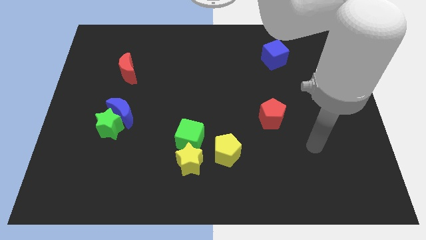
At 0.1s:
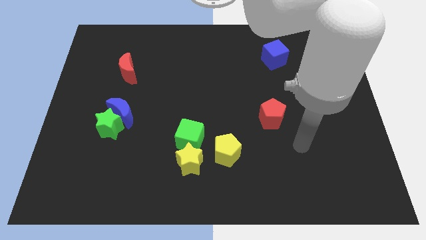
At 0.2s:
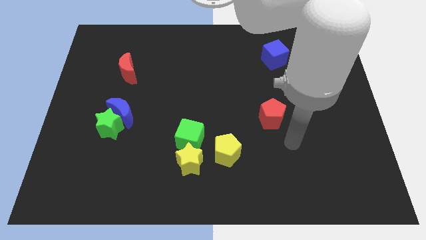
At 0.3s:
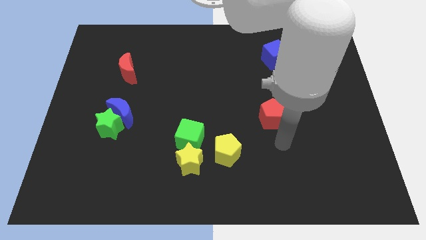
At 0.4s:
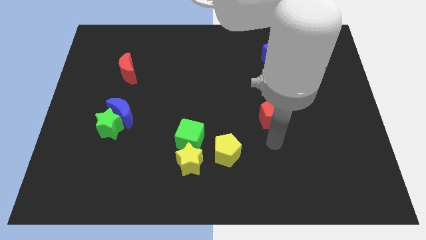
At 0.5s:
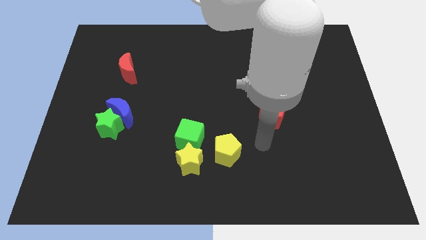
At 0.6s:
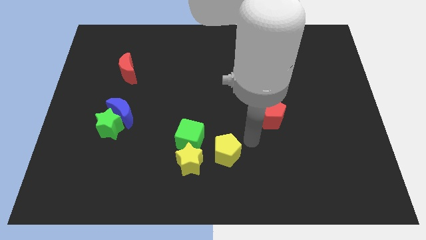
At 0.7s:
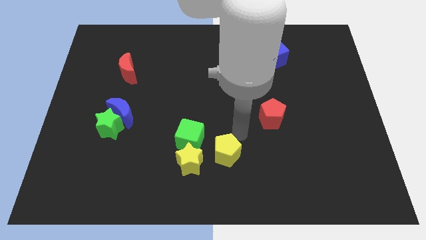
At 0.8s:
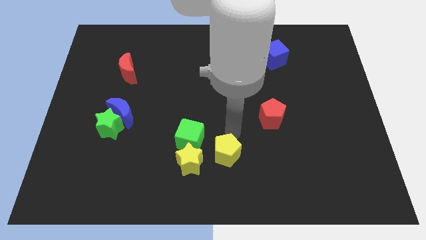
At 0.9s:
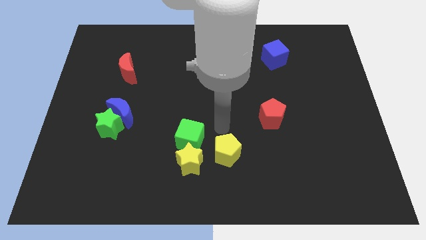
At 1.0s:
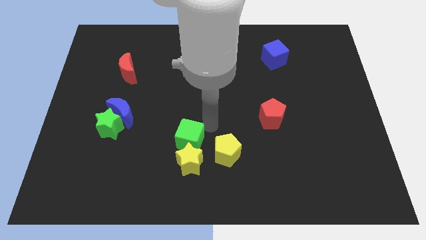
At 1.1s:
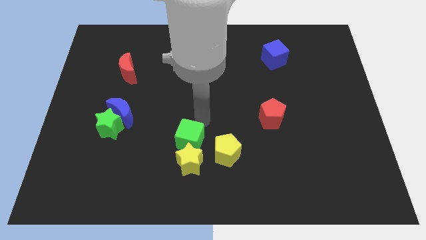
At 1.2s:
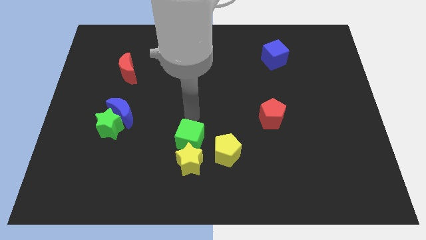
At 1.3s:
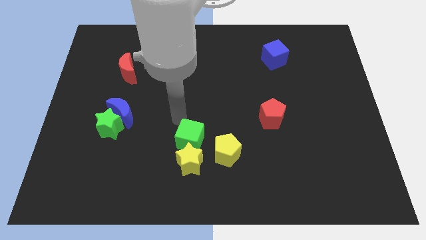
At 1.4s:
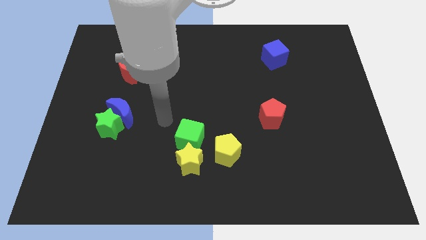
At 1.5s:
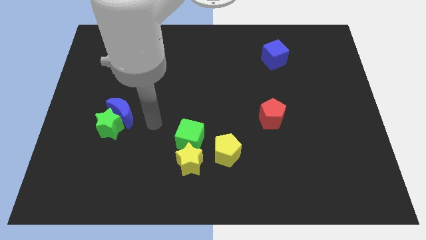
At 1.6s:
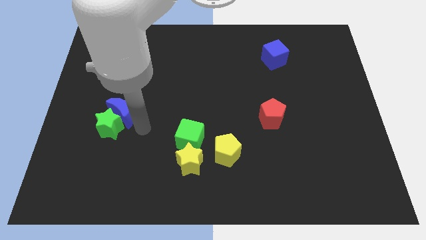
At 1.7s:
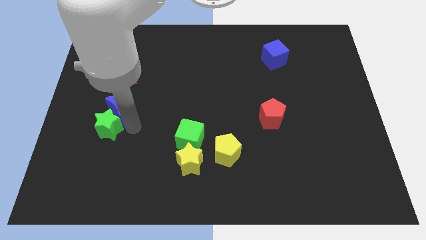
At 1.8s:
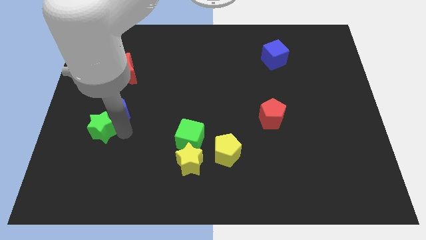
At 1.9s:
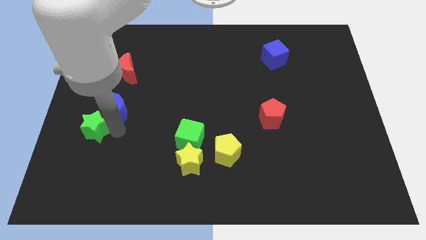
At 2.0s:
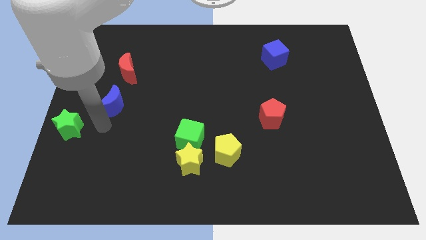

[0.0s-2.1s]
move the blue moon away from the green star

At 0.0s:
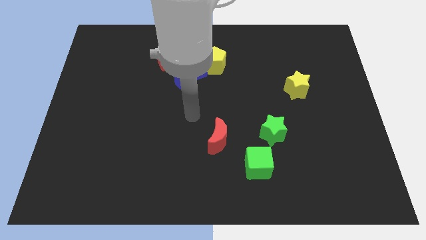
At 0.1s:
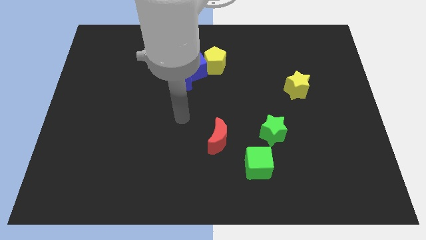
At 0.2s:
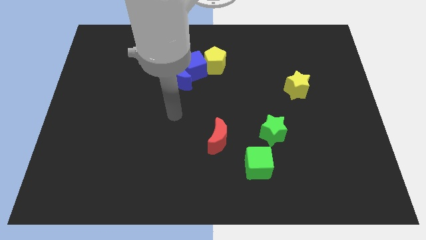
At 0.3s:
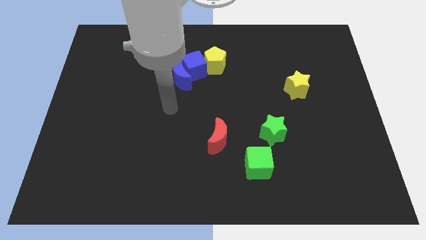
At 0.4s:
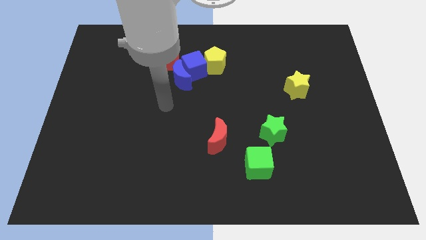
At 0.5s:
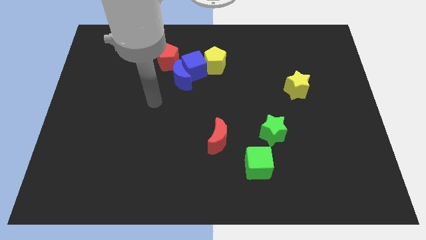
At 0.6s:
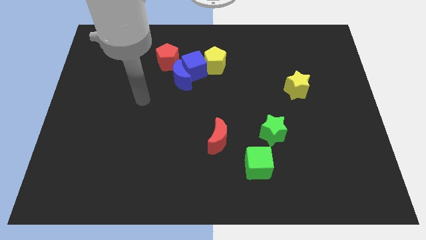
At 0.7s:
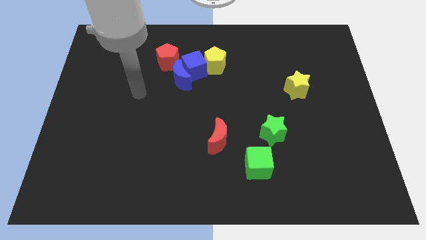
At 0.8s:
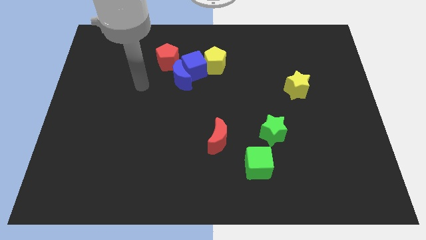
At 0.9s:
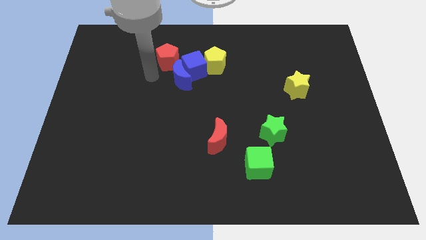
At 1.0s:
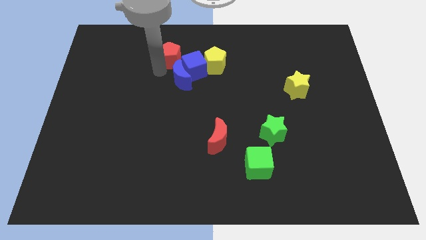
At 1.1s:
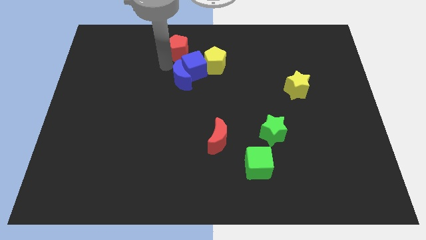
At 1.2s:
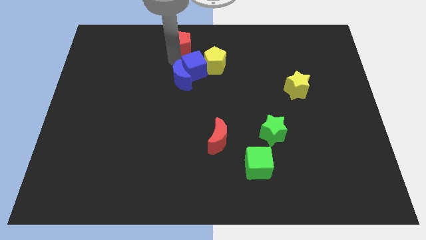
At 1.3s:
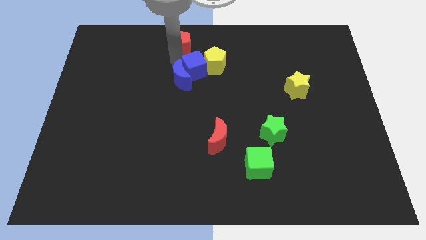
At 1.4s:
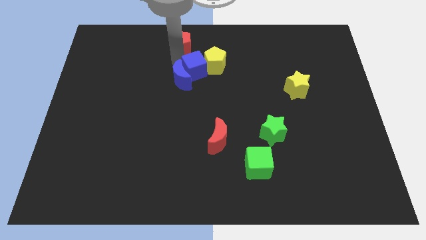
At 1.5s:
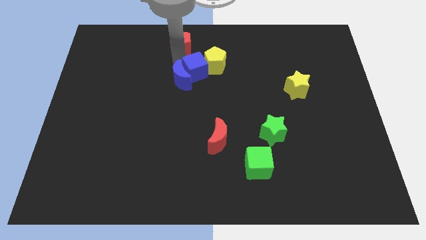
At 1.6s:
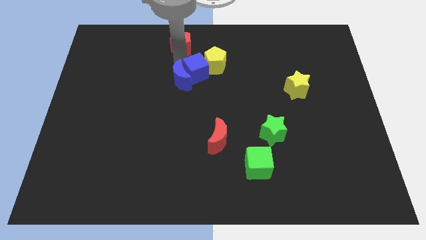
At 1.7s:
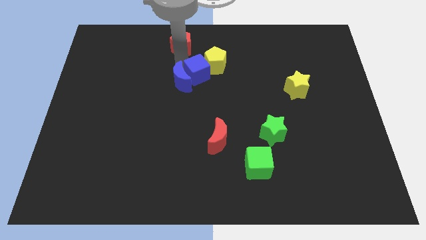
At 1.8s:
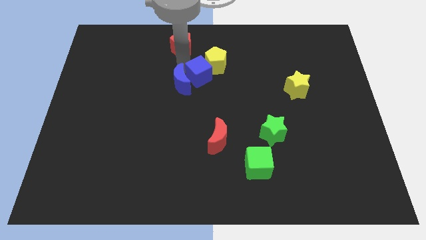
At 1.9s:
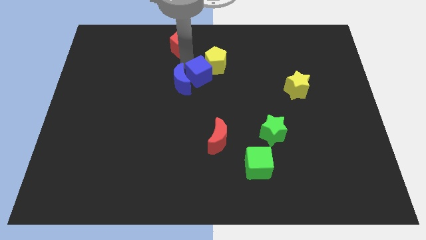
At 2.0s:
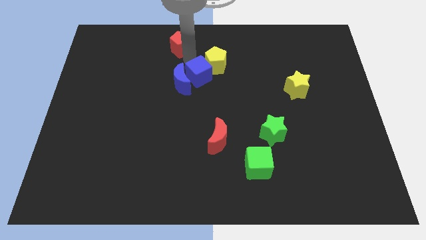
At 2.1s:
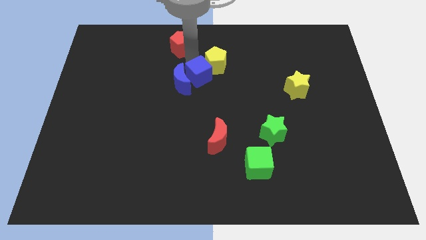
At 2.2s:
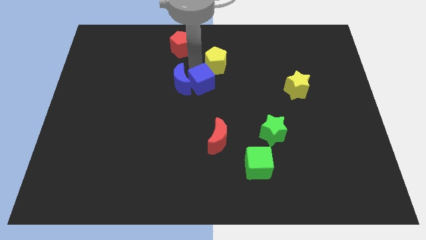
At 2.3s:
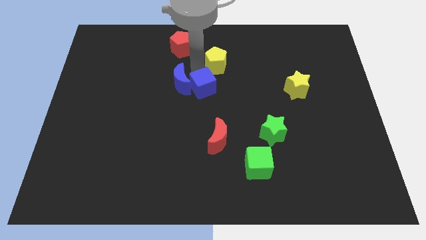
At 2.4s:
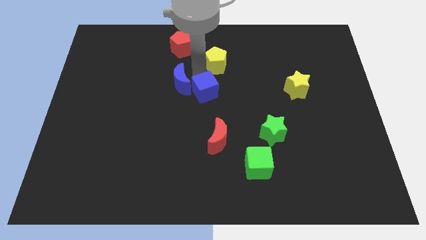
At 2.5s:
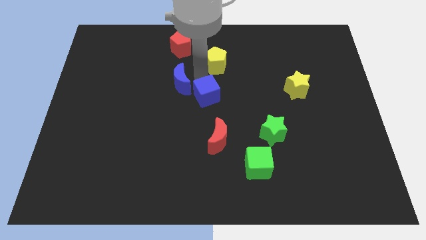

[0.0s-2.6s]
pull the blue cube apart from the group

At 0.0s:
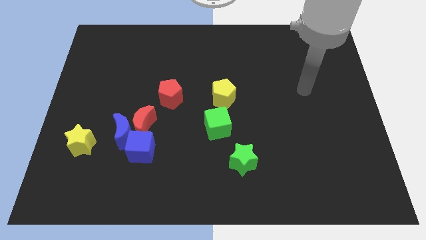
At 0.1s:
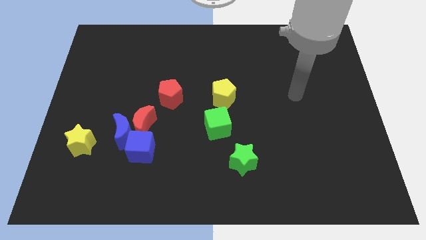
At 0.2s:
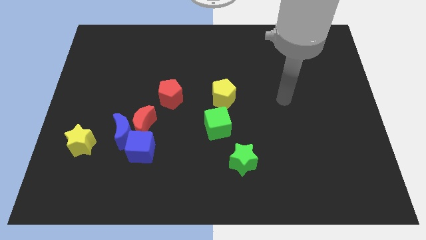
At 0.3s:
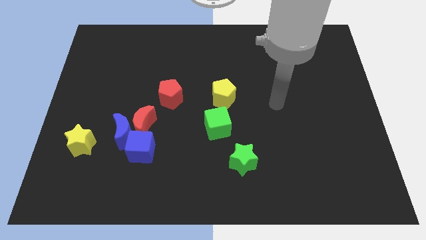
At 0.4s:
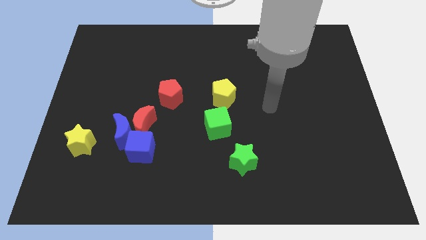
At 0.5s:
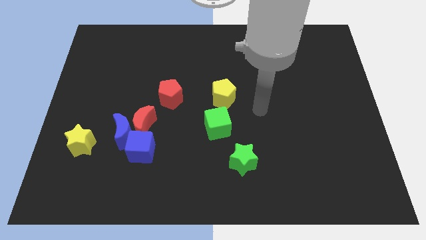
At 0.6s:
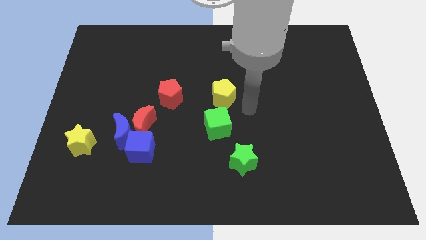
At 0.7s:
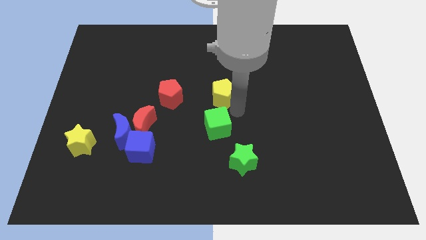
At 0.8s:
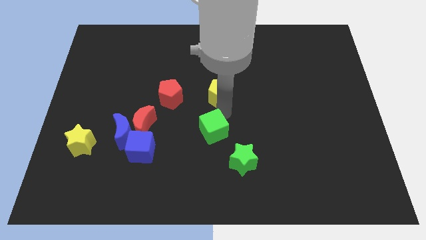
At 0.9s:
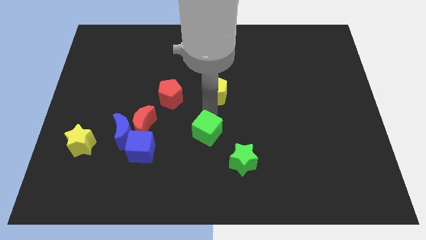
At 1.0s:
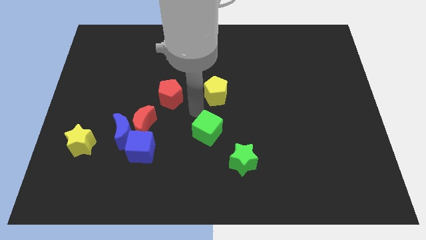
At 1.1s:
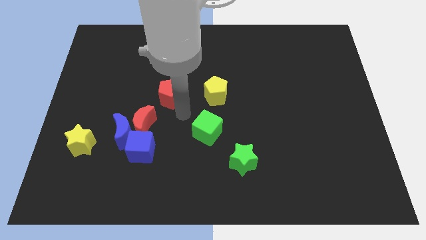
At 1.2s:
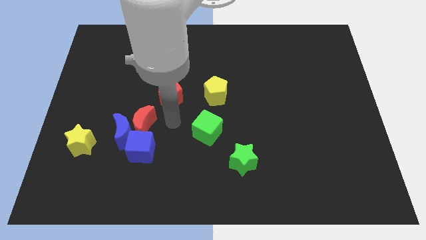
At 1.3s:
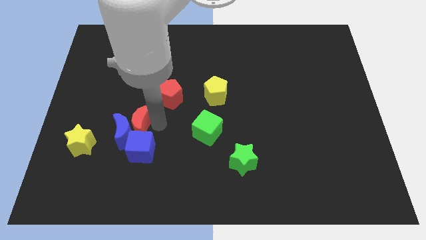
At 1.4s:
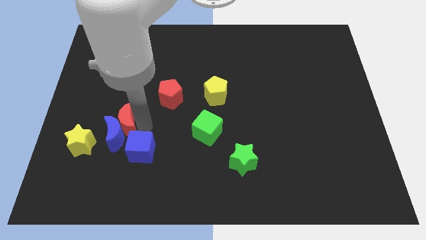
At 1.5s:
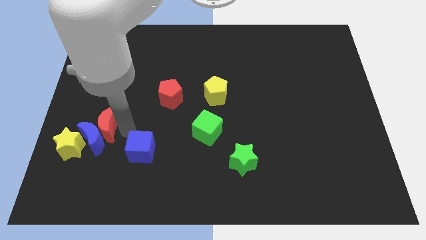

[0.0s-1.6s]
separate the blue cube from the blue moon and red moon

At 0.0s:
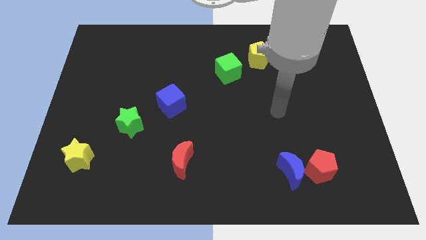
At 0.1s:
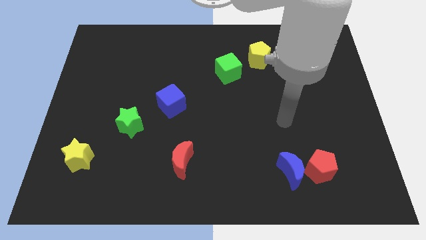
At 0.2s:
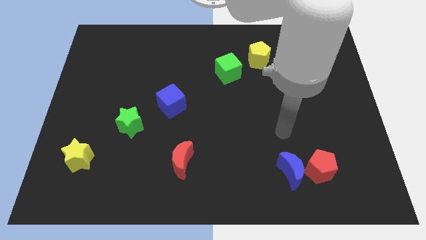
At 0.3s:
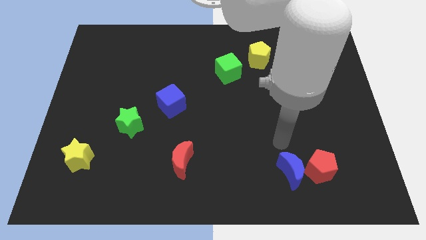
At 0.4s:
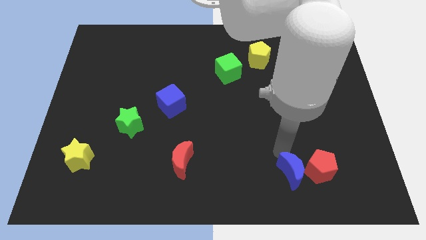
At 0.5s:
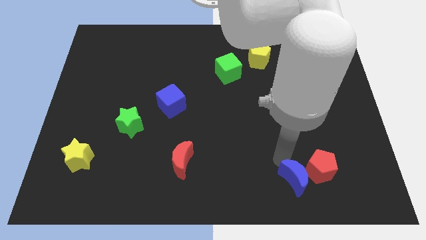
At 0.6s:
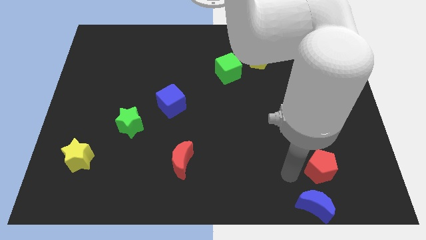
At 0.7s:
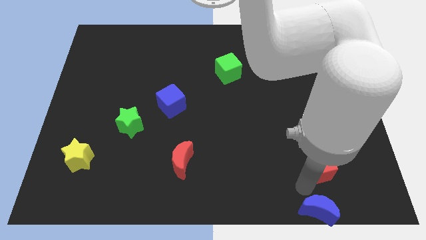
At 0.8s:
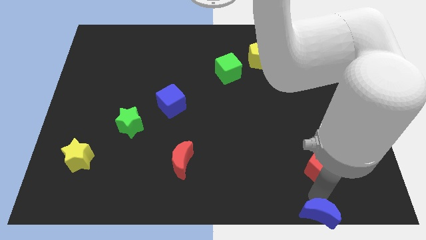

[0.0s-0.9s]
move the red pentagon away from the blue moon

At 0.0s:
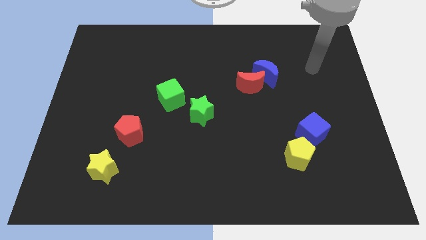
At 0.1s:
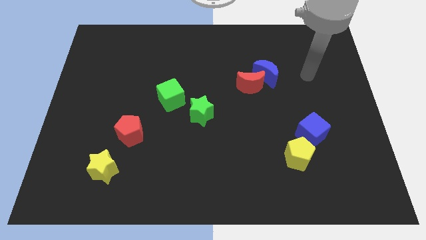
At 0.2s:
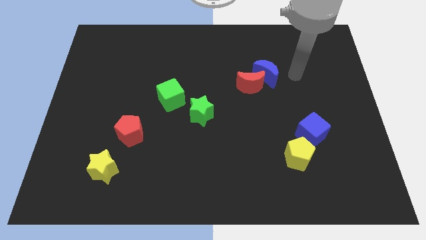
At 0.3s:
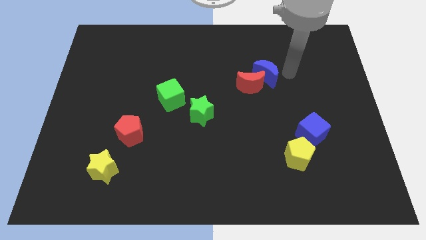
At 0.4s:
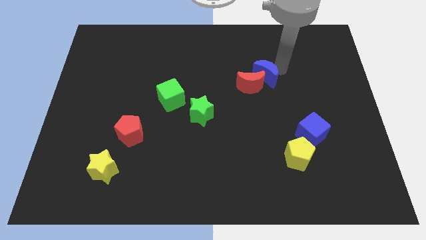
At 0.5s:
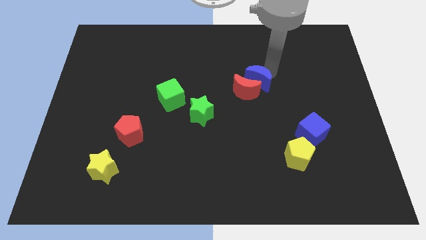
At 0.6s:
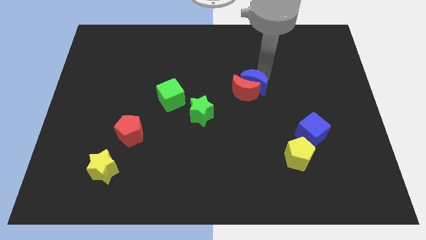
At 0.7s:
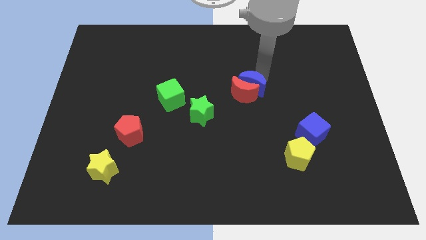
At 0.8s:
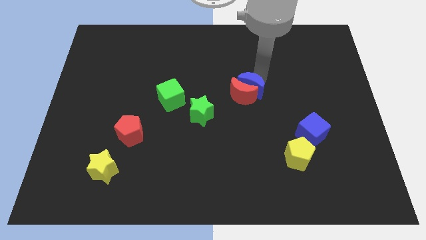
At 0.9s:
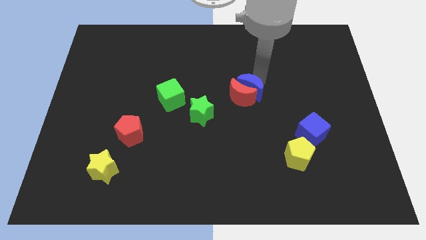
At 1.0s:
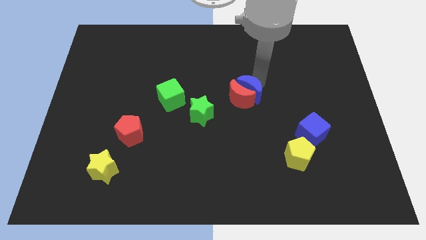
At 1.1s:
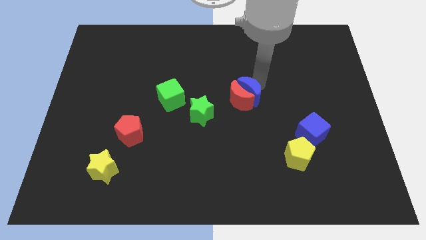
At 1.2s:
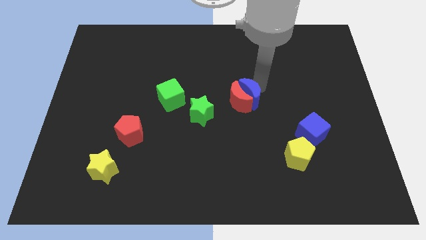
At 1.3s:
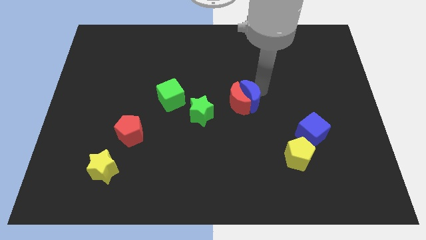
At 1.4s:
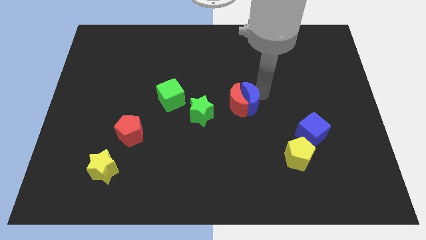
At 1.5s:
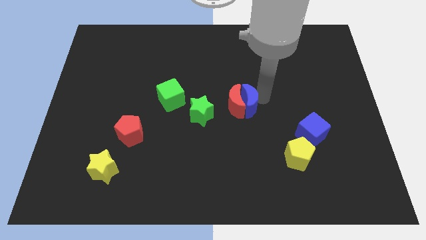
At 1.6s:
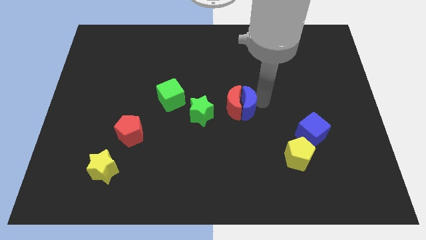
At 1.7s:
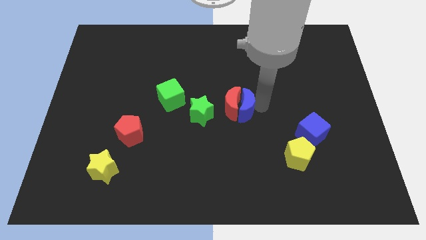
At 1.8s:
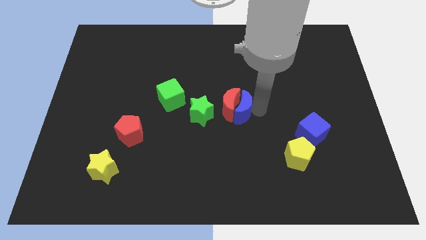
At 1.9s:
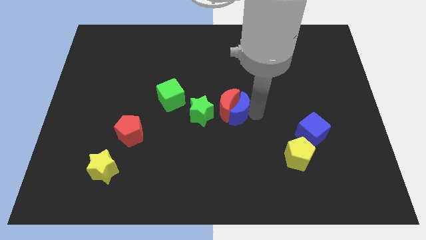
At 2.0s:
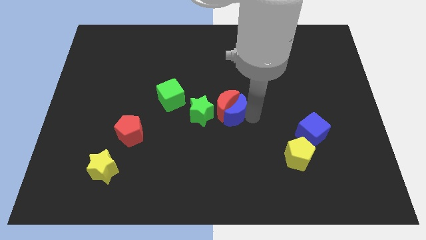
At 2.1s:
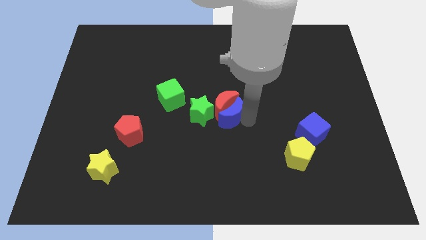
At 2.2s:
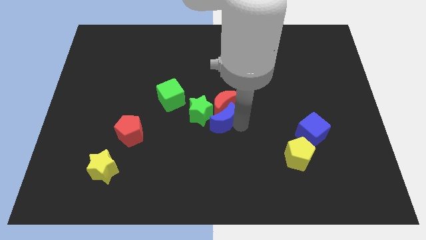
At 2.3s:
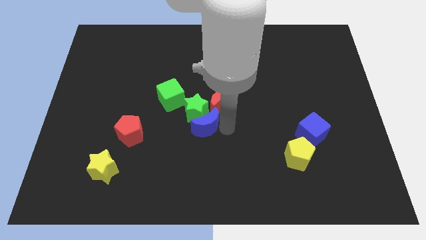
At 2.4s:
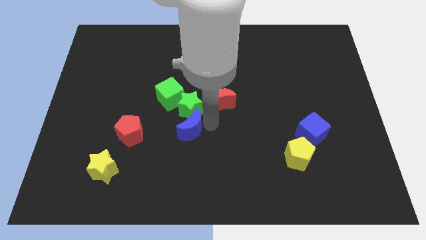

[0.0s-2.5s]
pull the red moon apart from the blue moon
